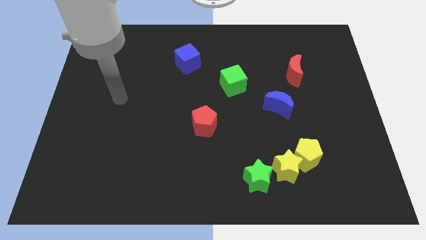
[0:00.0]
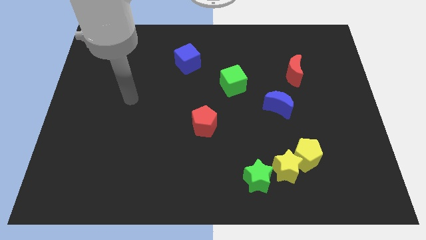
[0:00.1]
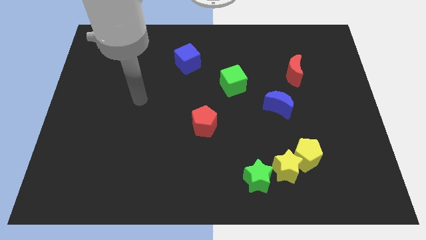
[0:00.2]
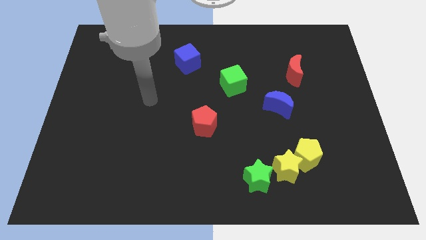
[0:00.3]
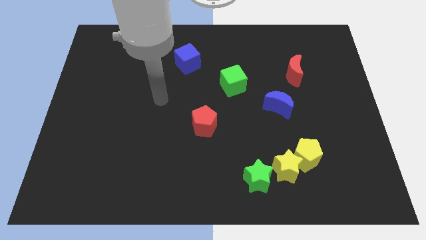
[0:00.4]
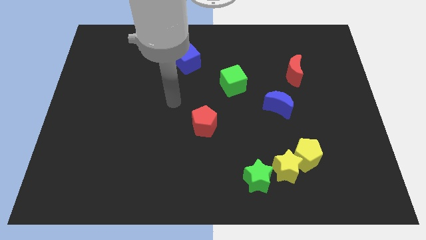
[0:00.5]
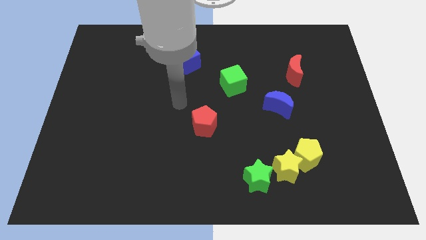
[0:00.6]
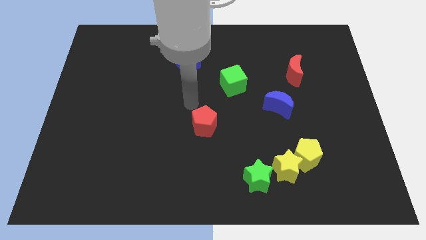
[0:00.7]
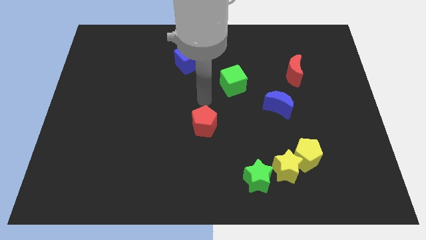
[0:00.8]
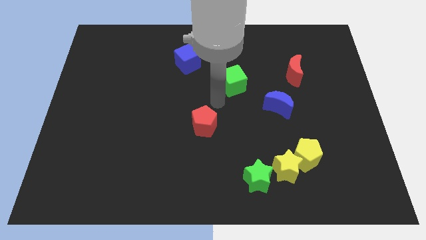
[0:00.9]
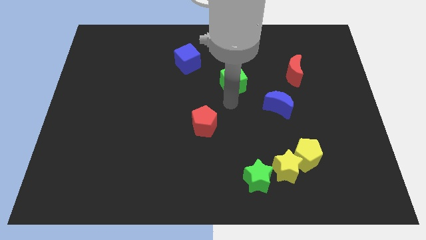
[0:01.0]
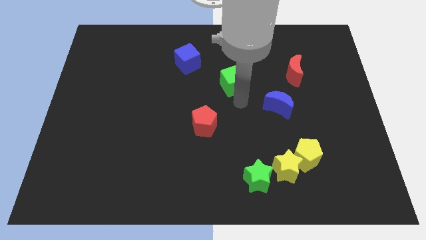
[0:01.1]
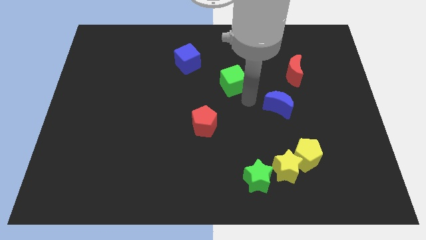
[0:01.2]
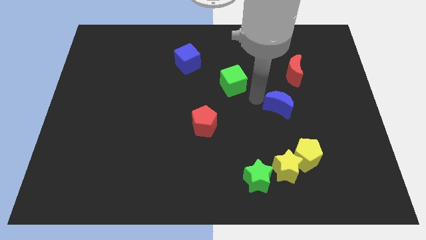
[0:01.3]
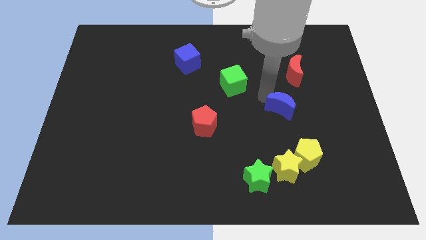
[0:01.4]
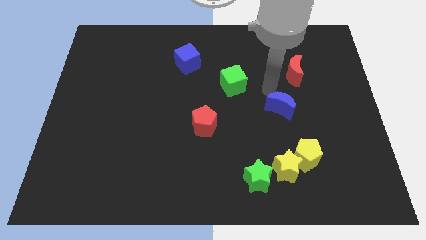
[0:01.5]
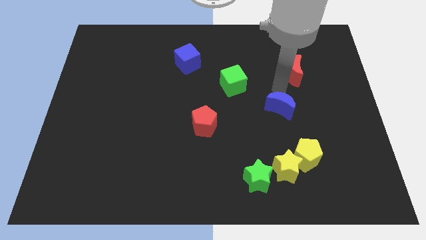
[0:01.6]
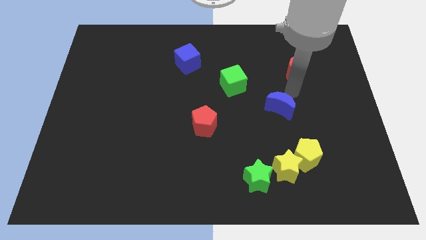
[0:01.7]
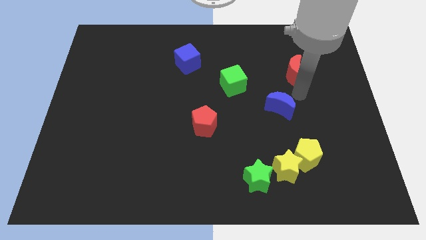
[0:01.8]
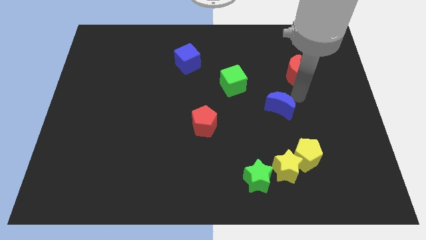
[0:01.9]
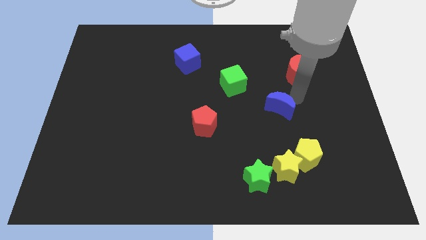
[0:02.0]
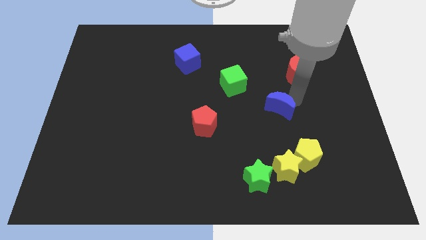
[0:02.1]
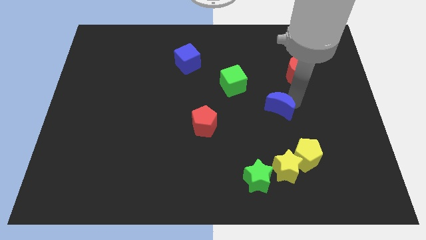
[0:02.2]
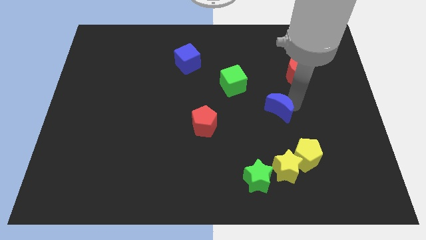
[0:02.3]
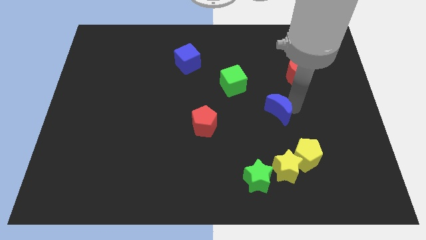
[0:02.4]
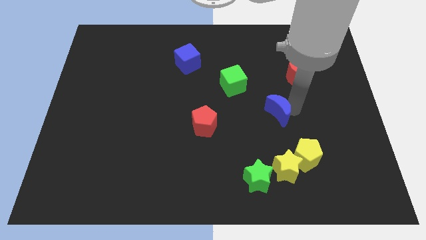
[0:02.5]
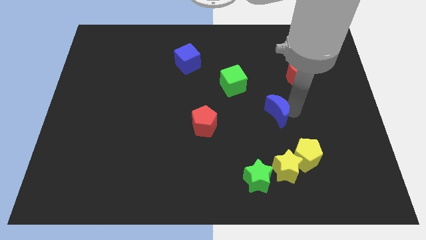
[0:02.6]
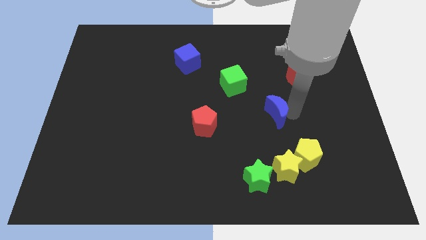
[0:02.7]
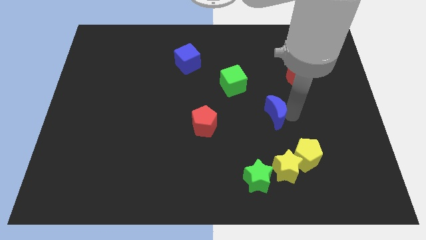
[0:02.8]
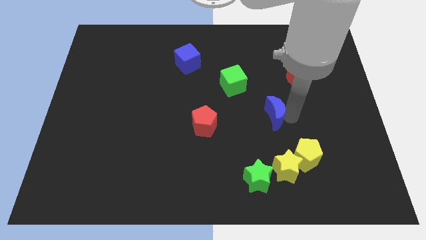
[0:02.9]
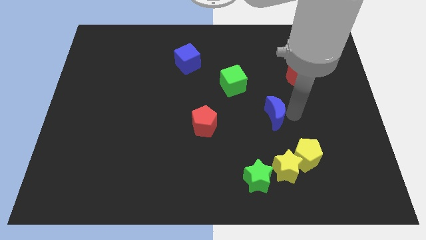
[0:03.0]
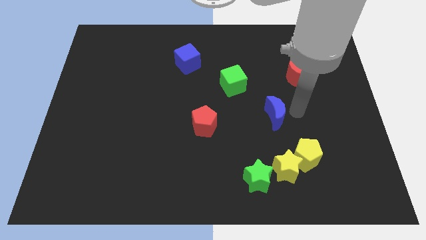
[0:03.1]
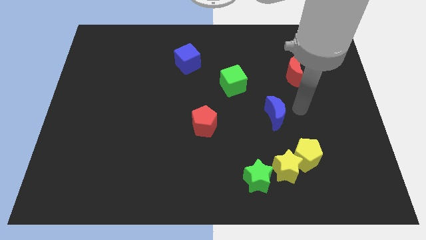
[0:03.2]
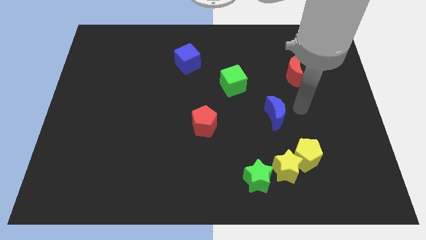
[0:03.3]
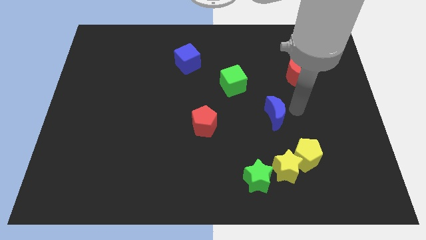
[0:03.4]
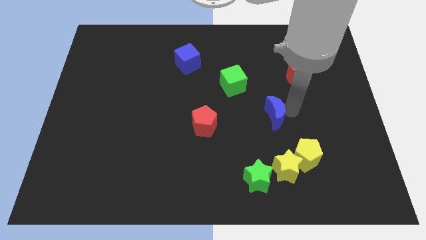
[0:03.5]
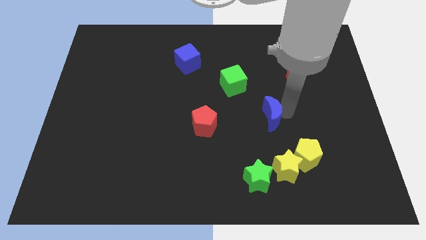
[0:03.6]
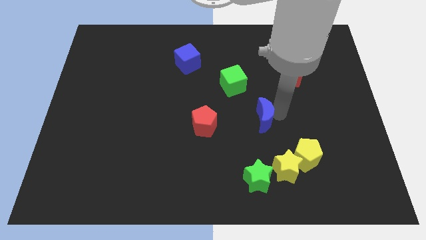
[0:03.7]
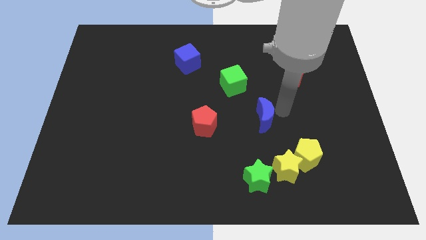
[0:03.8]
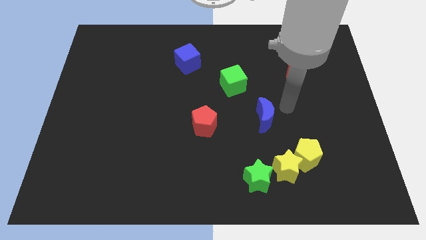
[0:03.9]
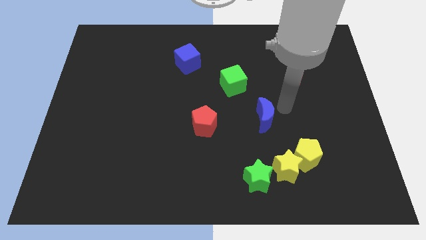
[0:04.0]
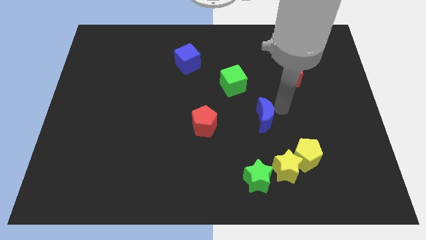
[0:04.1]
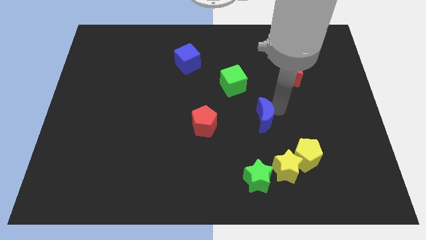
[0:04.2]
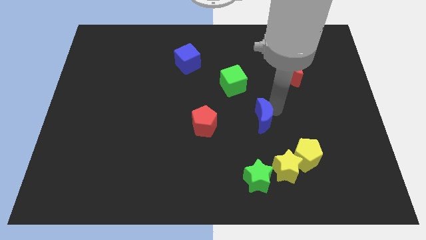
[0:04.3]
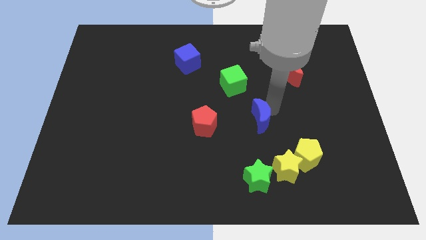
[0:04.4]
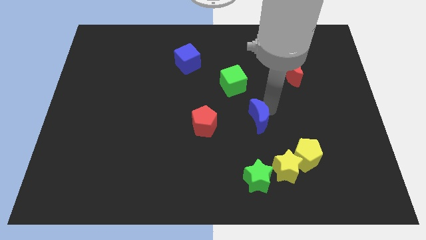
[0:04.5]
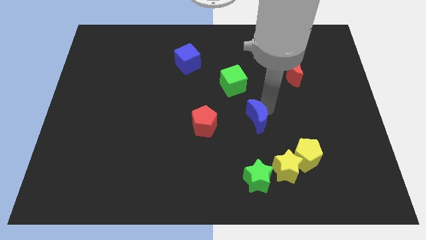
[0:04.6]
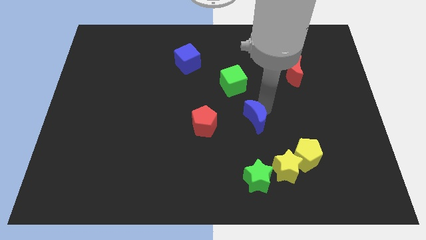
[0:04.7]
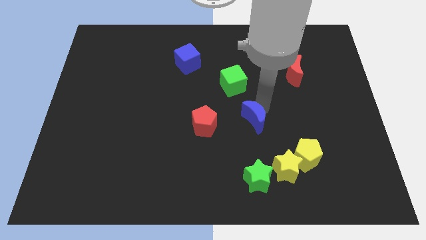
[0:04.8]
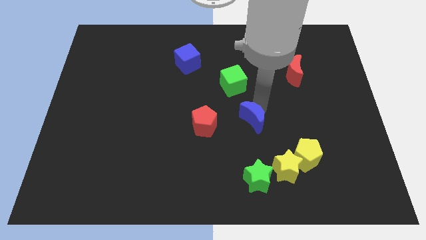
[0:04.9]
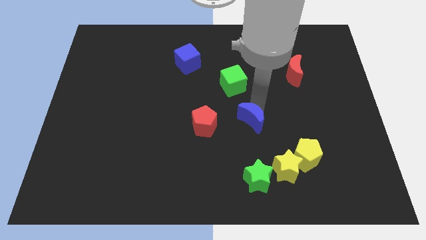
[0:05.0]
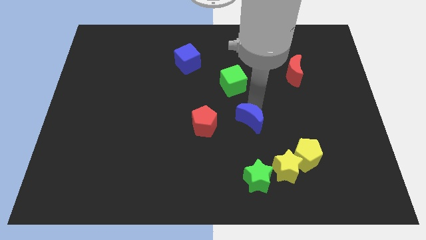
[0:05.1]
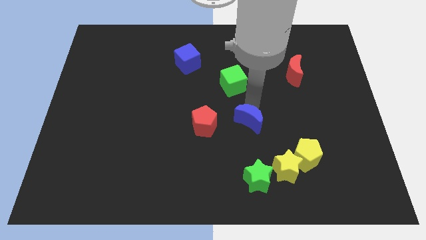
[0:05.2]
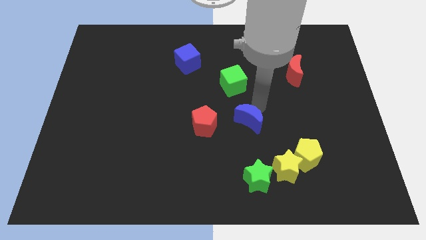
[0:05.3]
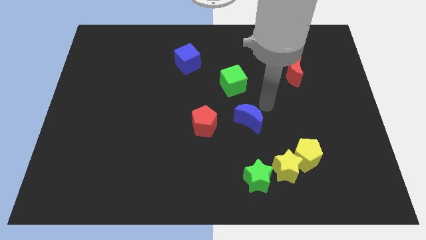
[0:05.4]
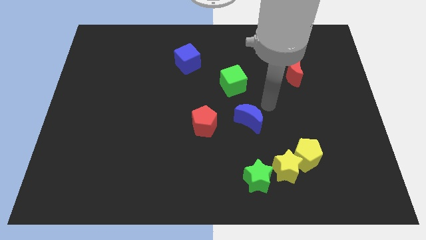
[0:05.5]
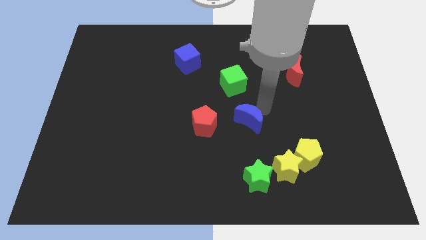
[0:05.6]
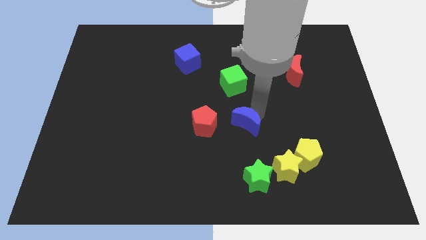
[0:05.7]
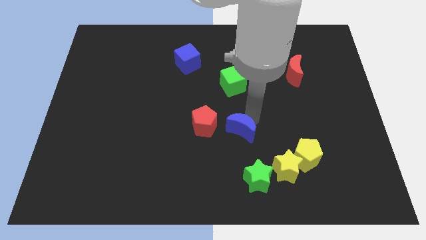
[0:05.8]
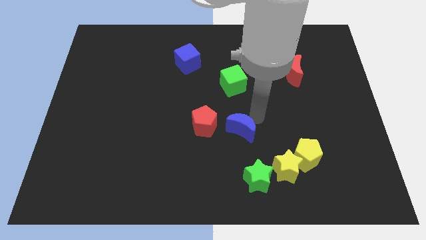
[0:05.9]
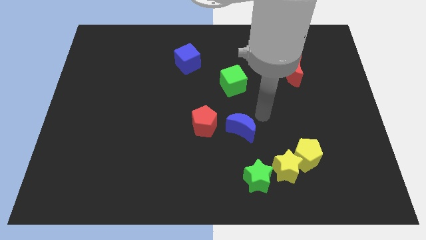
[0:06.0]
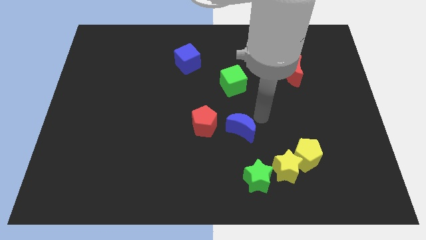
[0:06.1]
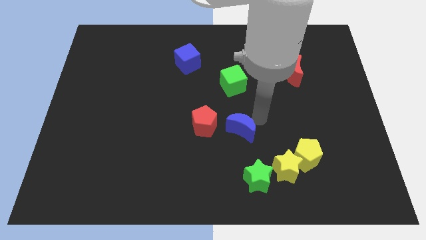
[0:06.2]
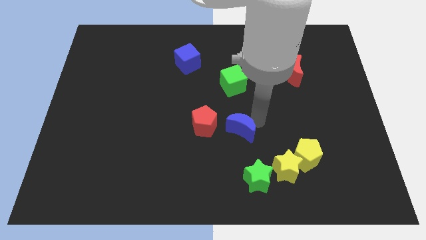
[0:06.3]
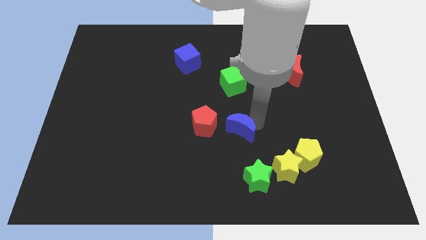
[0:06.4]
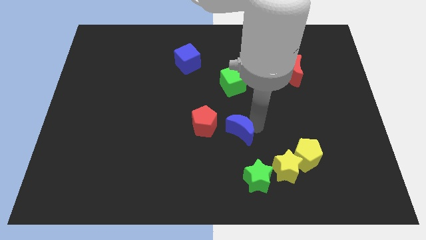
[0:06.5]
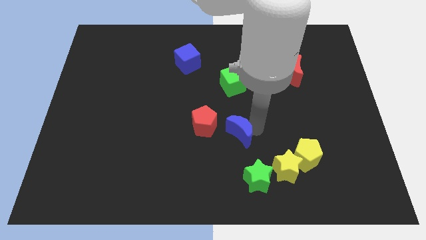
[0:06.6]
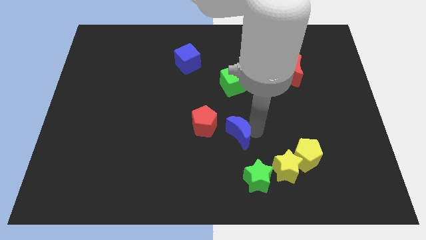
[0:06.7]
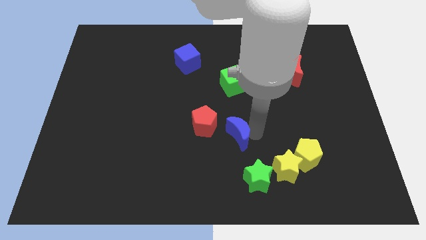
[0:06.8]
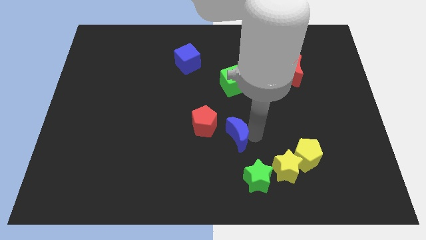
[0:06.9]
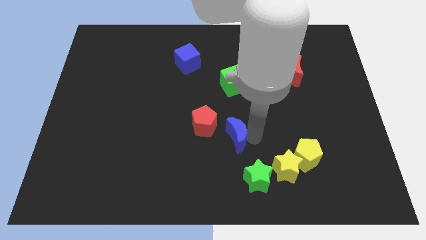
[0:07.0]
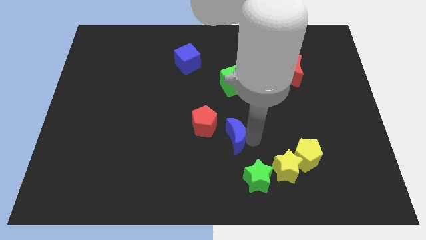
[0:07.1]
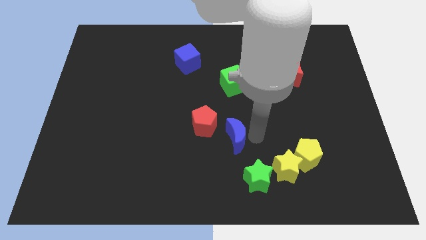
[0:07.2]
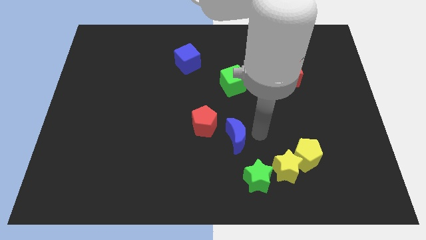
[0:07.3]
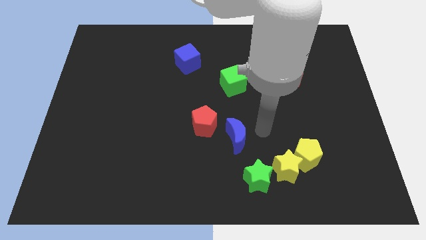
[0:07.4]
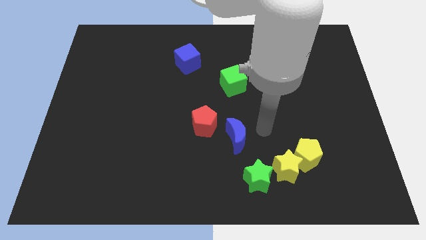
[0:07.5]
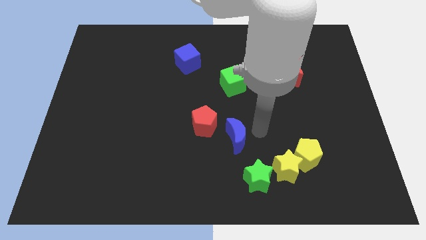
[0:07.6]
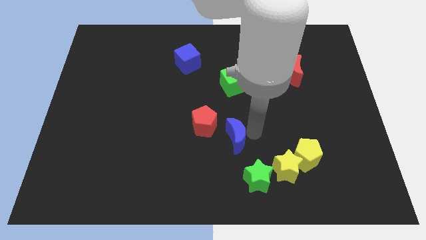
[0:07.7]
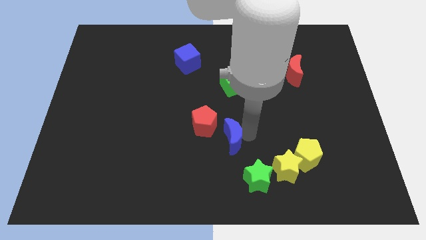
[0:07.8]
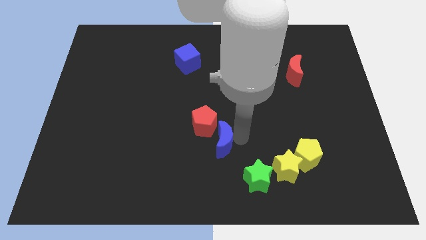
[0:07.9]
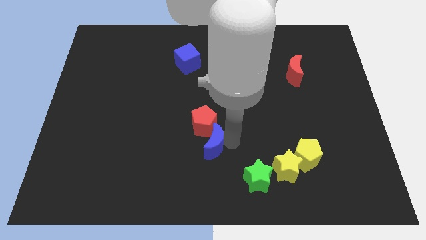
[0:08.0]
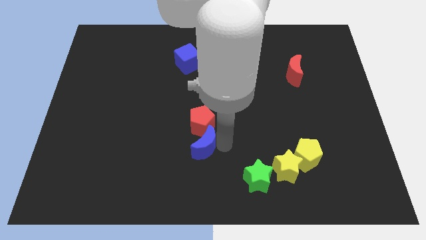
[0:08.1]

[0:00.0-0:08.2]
put the blue moon diagonally down and to the left of the red pentagon
